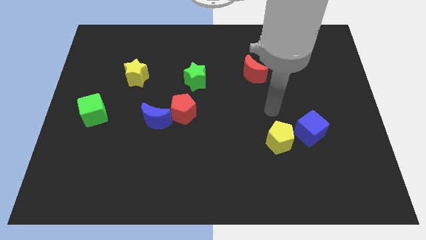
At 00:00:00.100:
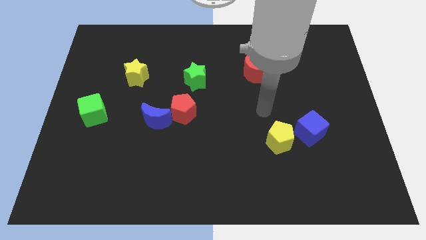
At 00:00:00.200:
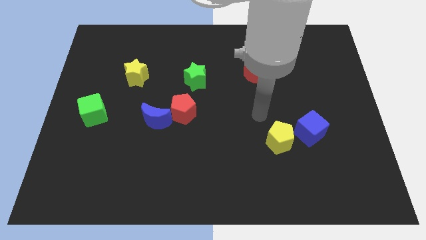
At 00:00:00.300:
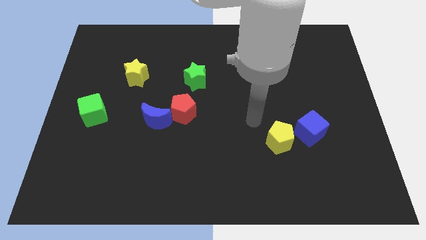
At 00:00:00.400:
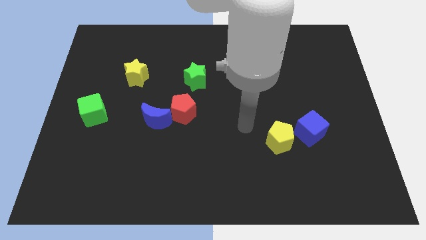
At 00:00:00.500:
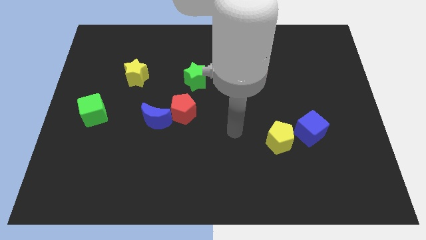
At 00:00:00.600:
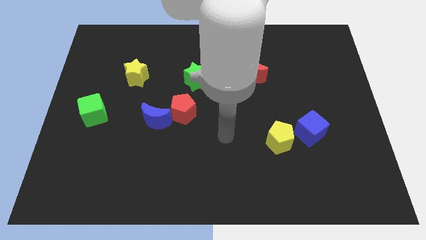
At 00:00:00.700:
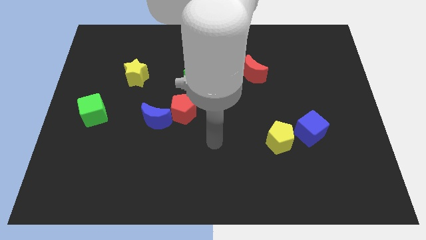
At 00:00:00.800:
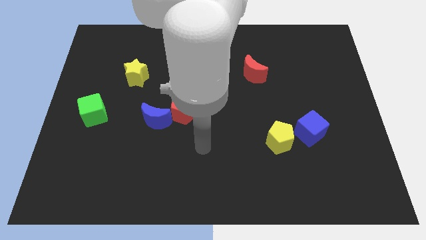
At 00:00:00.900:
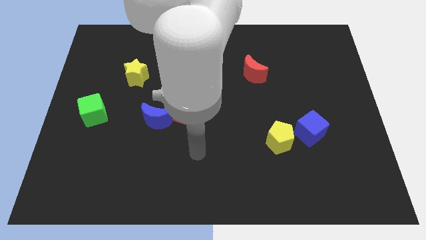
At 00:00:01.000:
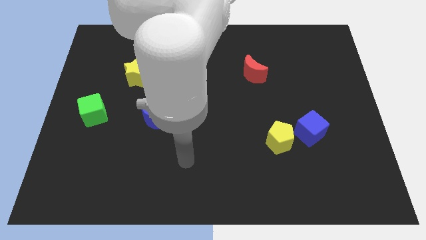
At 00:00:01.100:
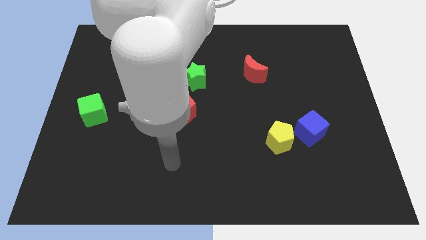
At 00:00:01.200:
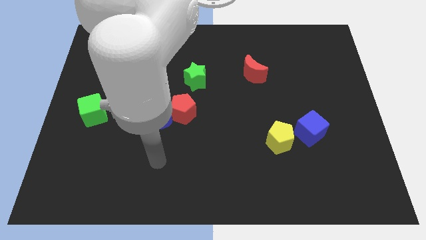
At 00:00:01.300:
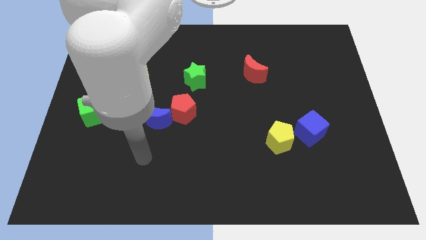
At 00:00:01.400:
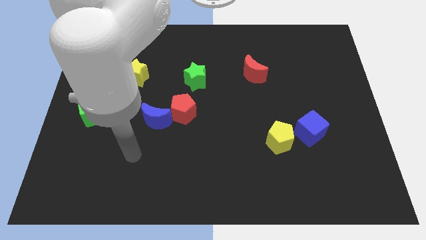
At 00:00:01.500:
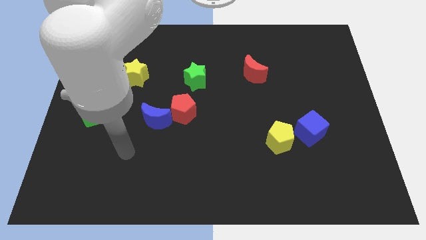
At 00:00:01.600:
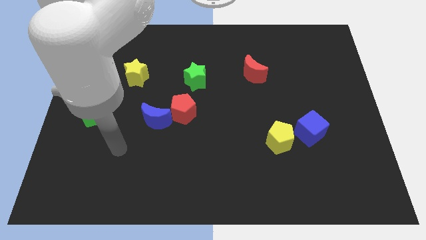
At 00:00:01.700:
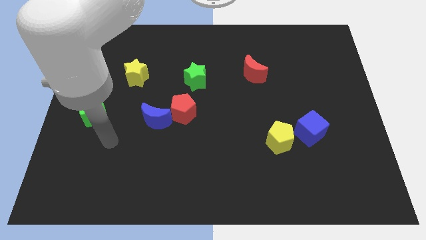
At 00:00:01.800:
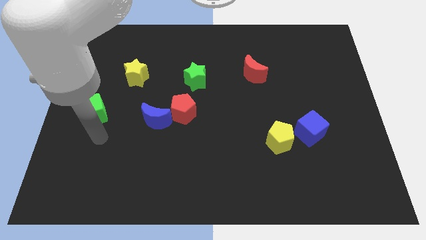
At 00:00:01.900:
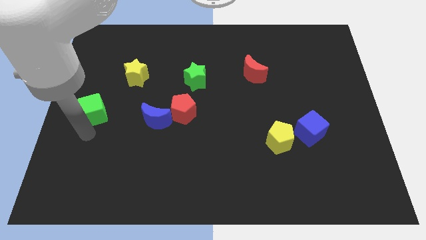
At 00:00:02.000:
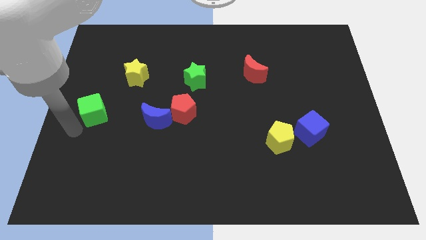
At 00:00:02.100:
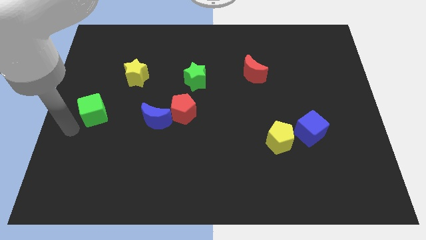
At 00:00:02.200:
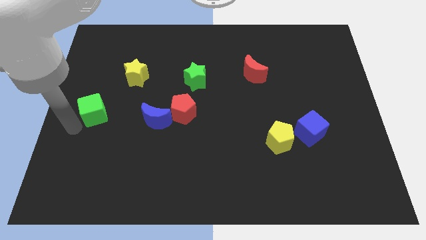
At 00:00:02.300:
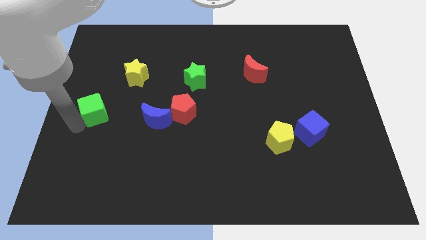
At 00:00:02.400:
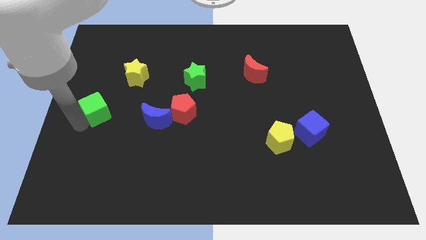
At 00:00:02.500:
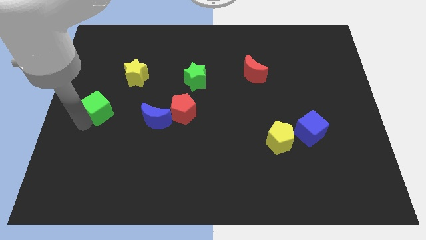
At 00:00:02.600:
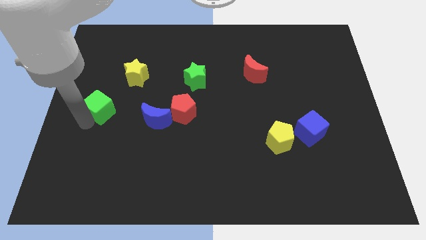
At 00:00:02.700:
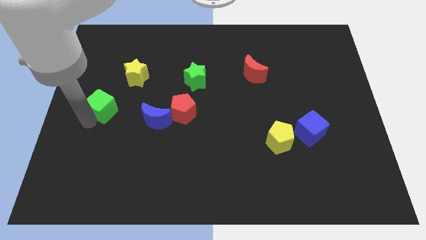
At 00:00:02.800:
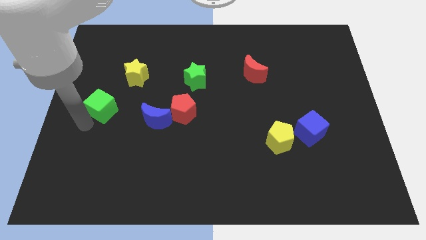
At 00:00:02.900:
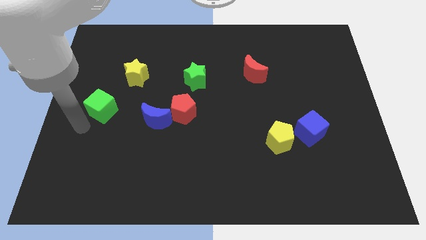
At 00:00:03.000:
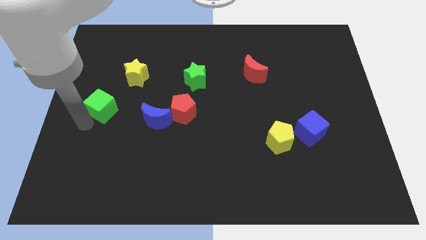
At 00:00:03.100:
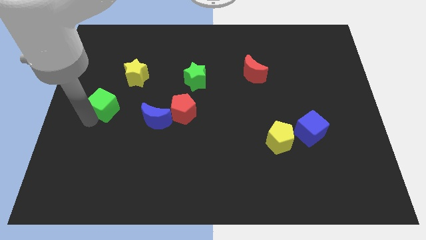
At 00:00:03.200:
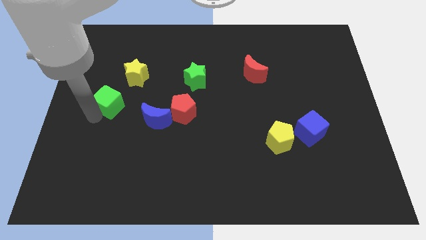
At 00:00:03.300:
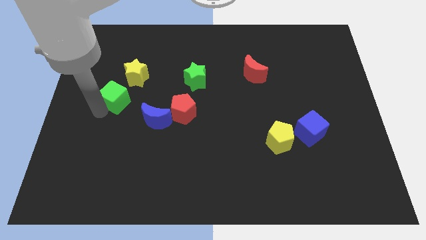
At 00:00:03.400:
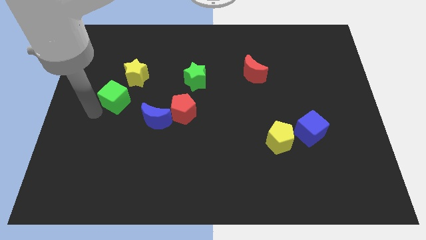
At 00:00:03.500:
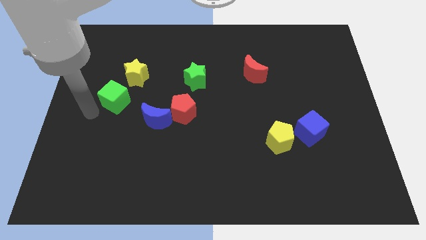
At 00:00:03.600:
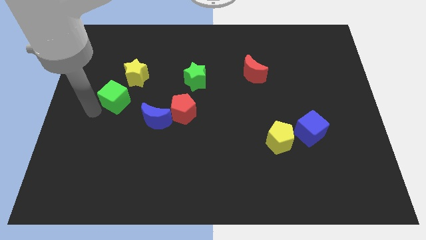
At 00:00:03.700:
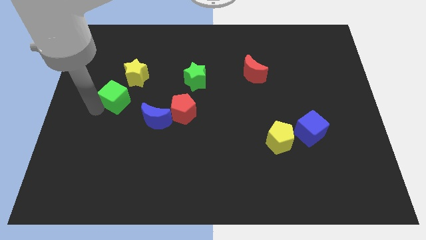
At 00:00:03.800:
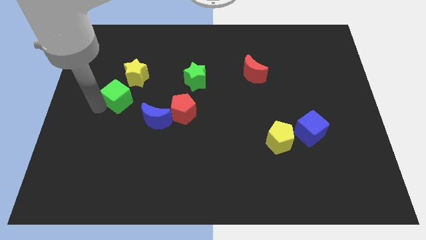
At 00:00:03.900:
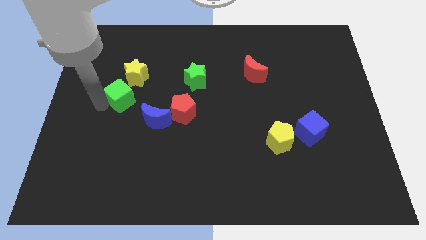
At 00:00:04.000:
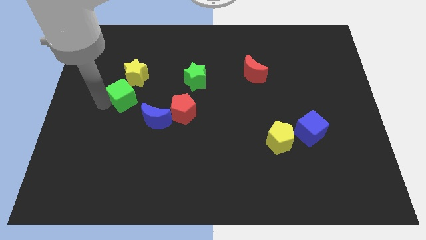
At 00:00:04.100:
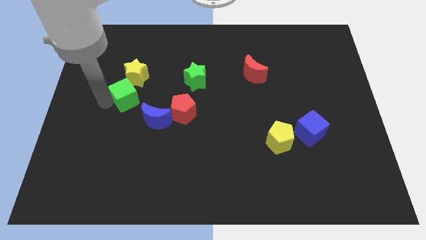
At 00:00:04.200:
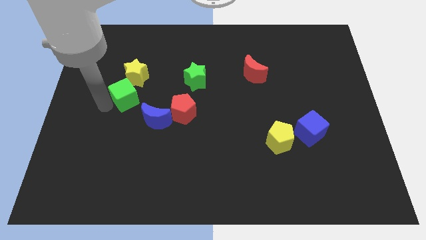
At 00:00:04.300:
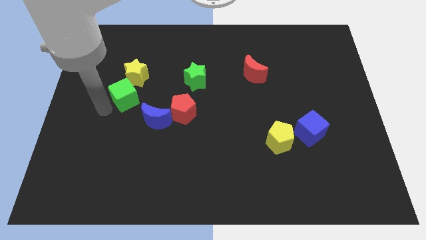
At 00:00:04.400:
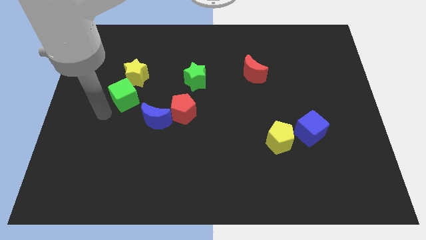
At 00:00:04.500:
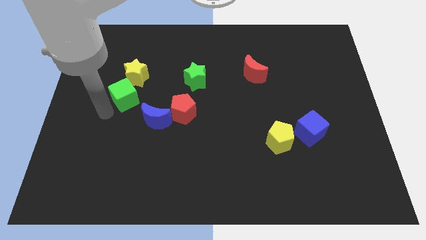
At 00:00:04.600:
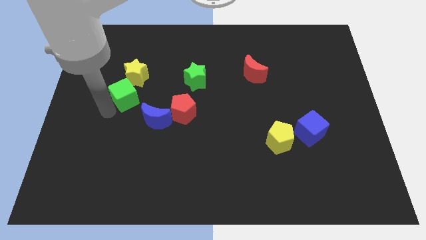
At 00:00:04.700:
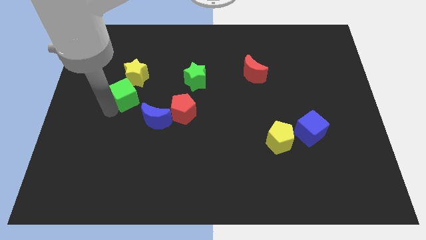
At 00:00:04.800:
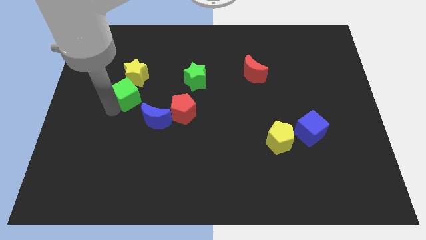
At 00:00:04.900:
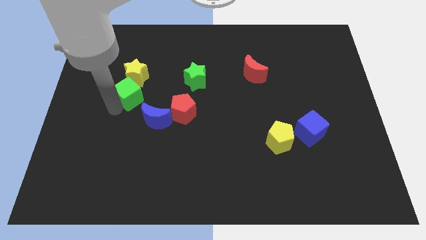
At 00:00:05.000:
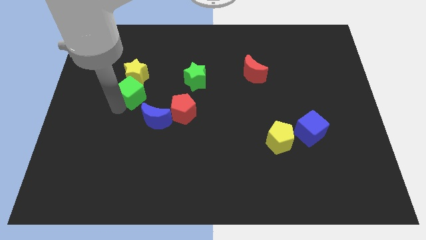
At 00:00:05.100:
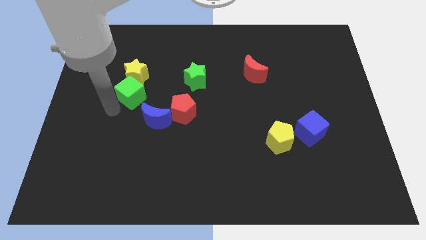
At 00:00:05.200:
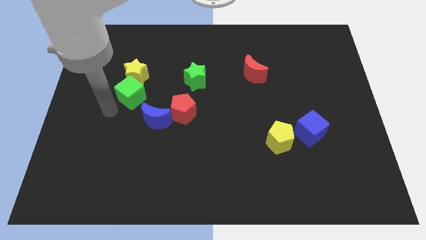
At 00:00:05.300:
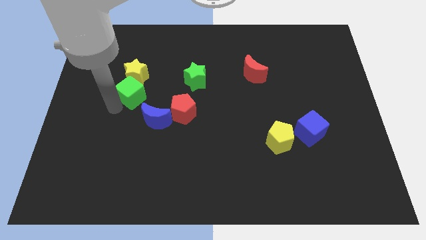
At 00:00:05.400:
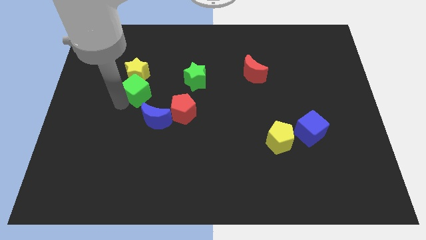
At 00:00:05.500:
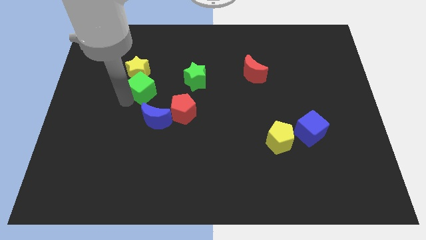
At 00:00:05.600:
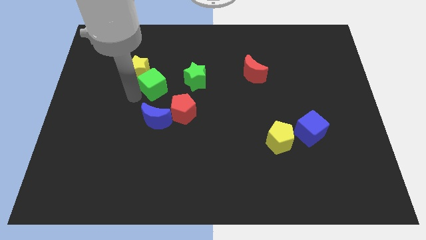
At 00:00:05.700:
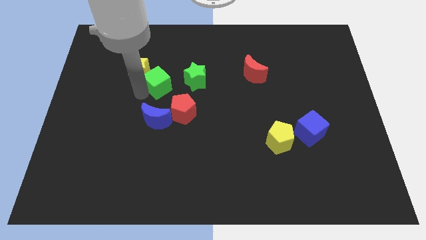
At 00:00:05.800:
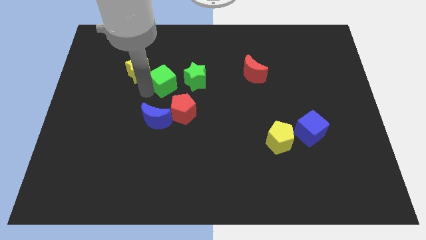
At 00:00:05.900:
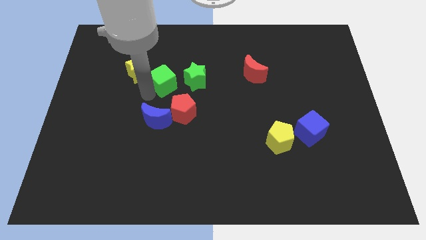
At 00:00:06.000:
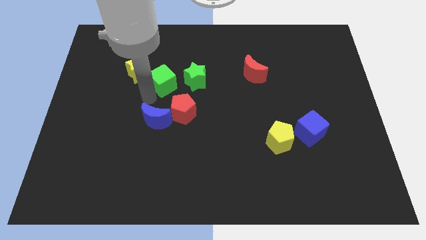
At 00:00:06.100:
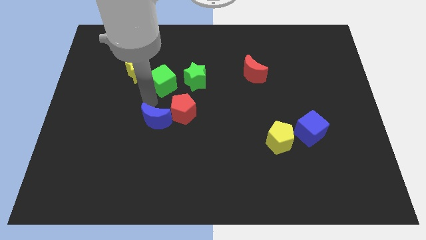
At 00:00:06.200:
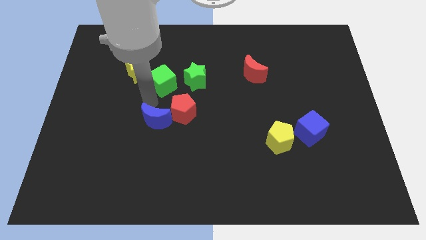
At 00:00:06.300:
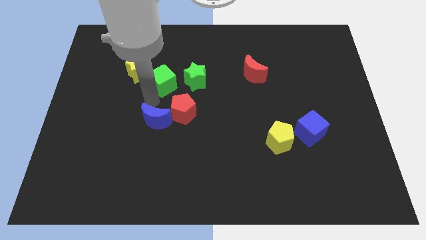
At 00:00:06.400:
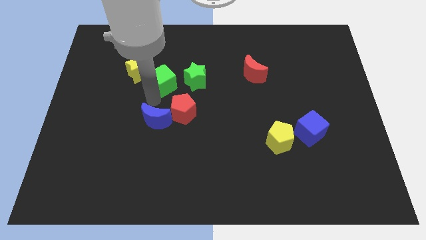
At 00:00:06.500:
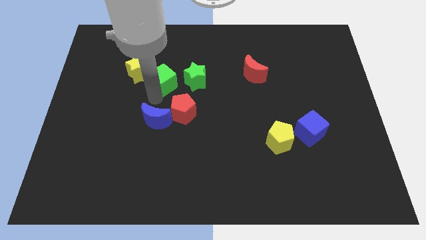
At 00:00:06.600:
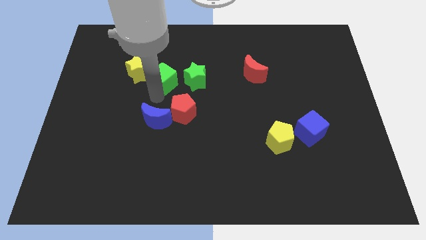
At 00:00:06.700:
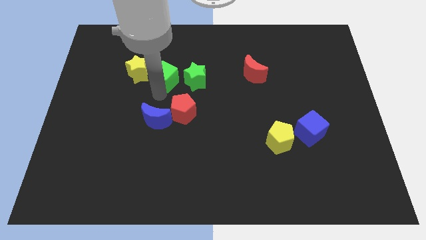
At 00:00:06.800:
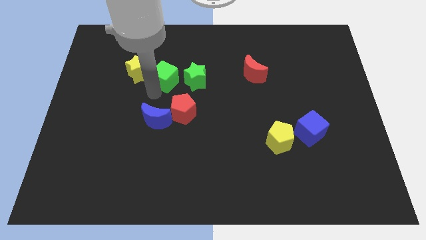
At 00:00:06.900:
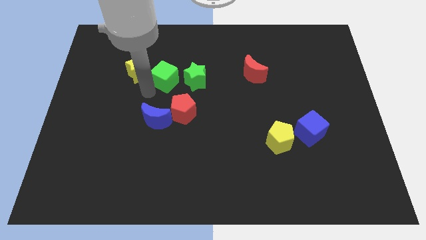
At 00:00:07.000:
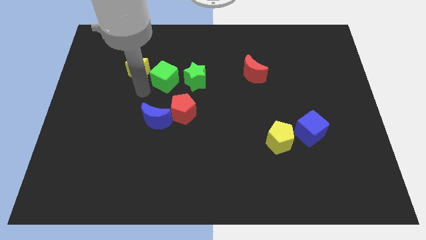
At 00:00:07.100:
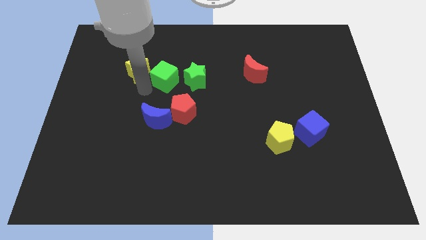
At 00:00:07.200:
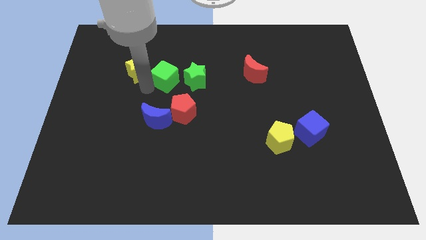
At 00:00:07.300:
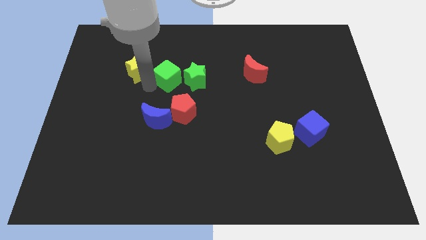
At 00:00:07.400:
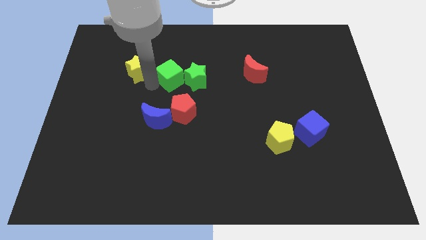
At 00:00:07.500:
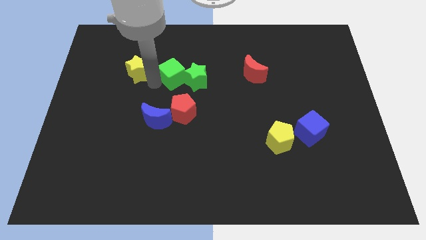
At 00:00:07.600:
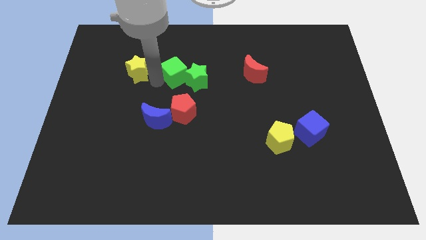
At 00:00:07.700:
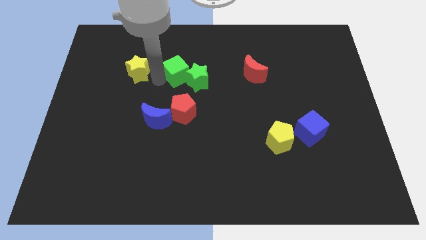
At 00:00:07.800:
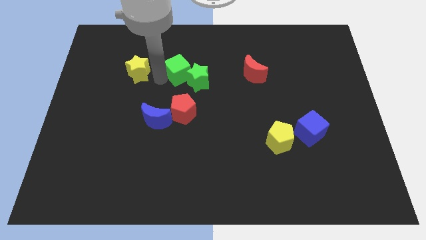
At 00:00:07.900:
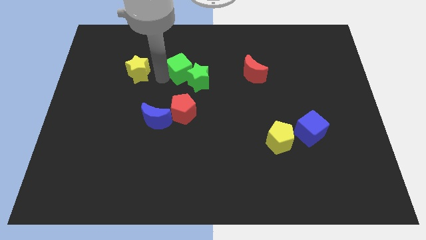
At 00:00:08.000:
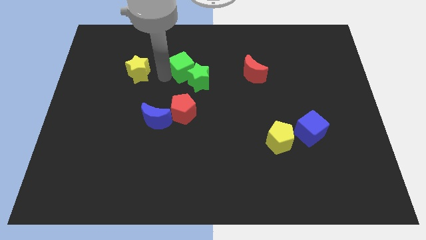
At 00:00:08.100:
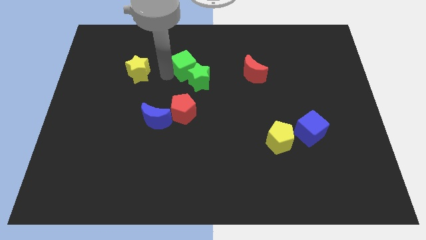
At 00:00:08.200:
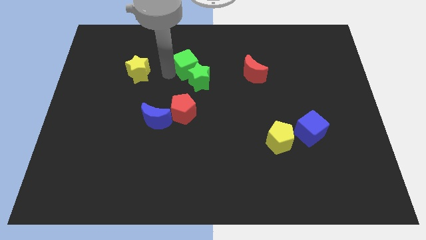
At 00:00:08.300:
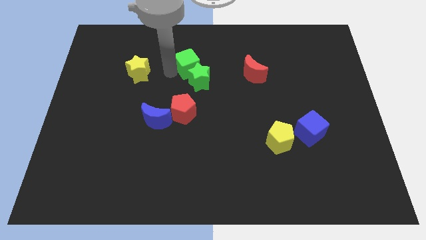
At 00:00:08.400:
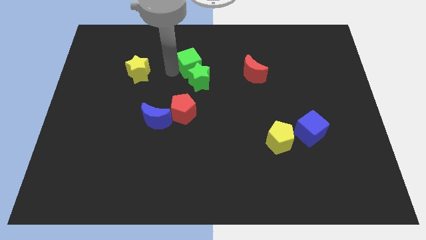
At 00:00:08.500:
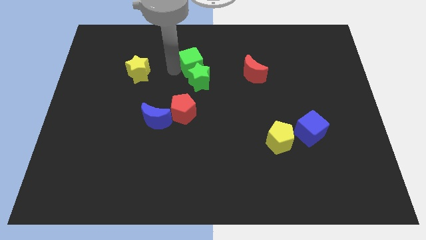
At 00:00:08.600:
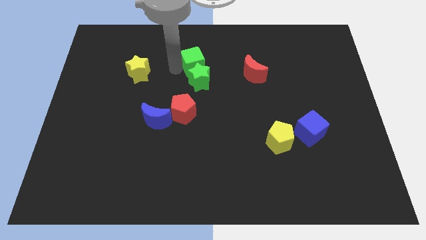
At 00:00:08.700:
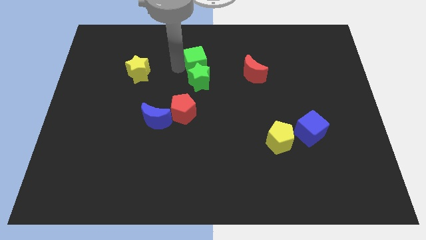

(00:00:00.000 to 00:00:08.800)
slide the green cube to the top right of the green star
